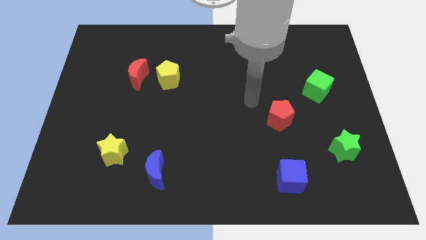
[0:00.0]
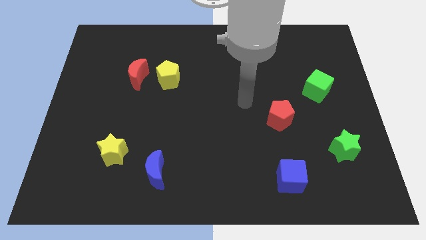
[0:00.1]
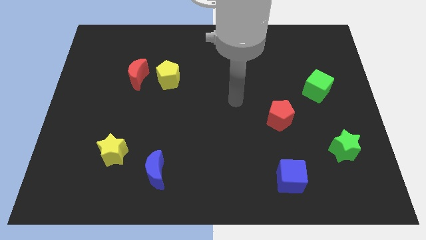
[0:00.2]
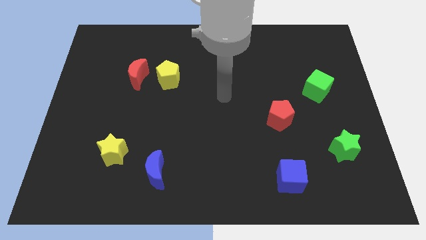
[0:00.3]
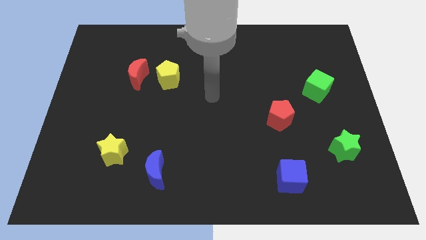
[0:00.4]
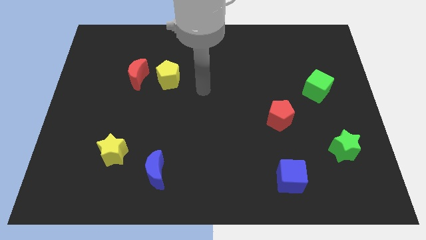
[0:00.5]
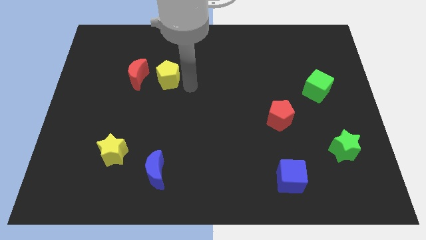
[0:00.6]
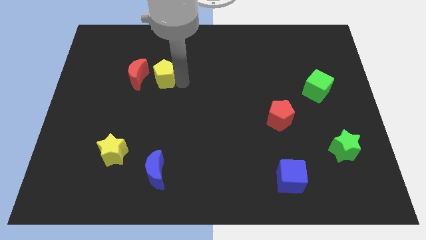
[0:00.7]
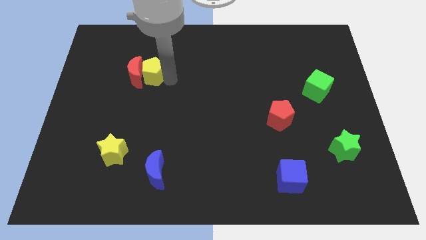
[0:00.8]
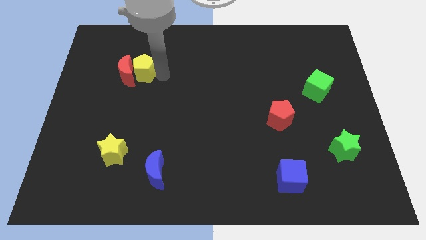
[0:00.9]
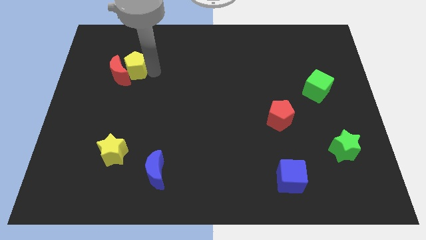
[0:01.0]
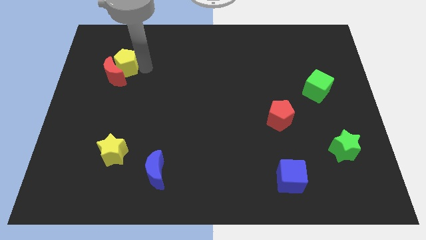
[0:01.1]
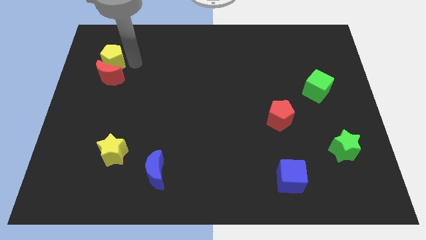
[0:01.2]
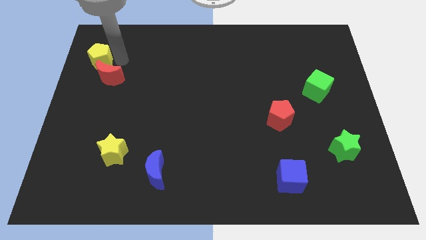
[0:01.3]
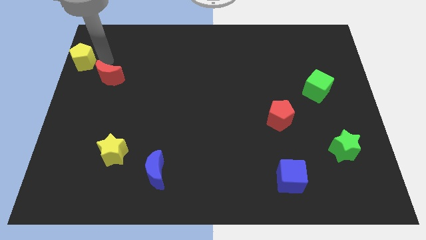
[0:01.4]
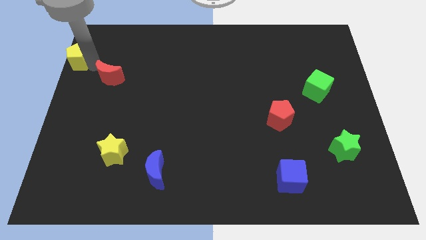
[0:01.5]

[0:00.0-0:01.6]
move the red moon away from the yellow pentagon

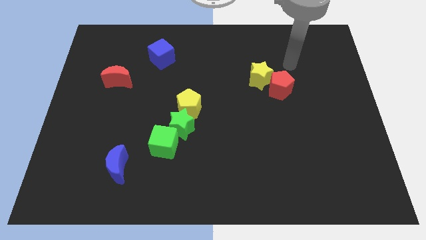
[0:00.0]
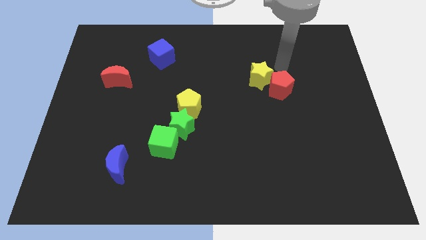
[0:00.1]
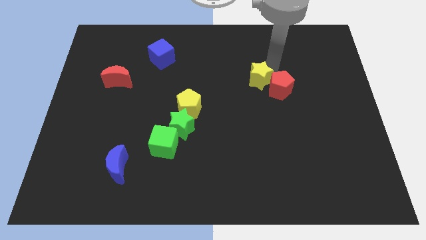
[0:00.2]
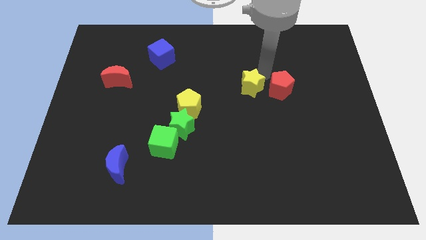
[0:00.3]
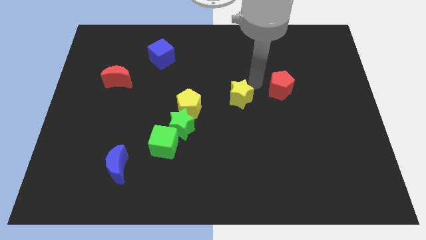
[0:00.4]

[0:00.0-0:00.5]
pull the red pentagon apart from the yellow star

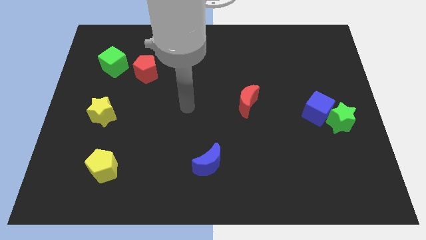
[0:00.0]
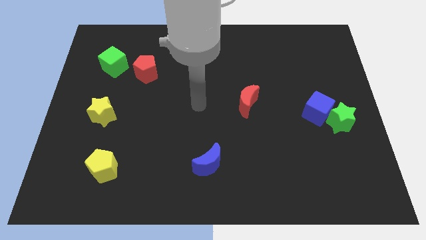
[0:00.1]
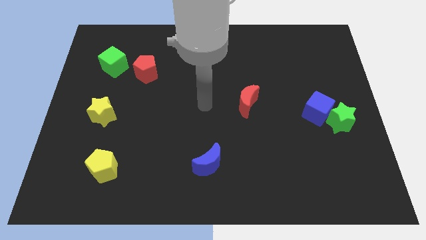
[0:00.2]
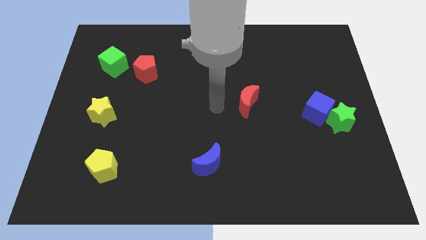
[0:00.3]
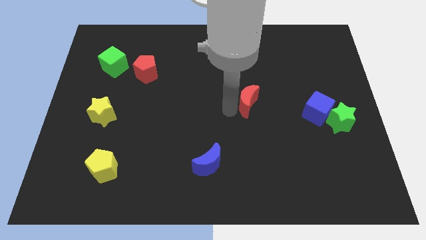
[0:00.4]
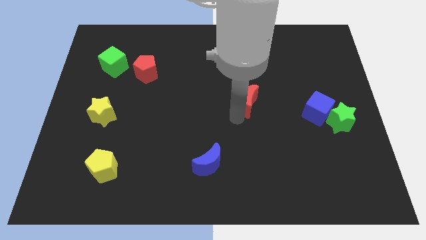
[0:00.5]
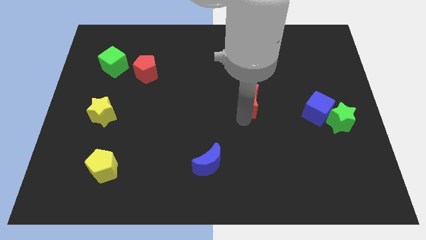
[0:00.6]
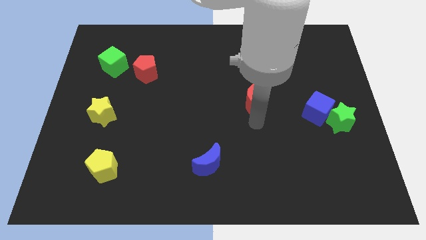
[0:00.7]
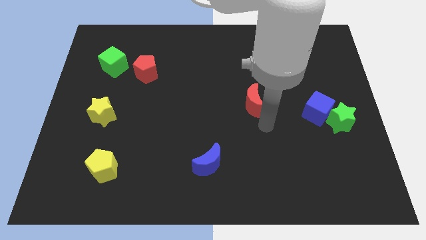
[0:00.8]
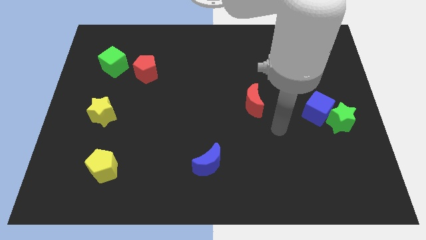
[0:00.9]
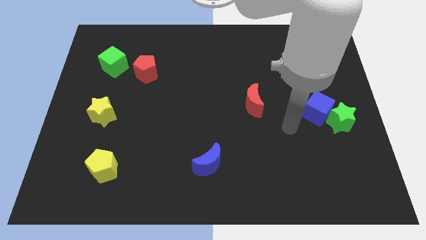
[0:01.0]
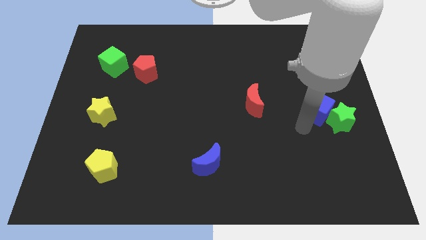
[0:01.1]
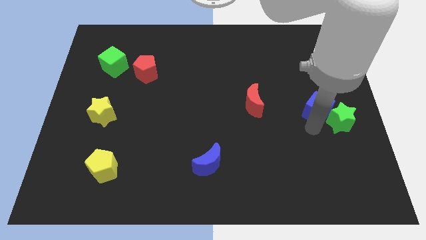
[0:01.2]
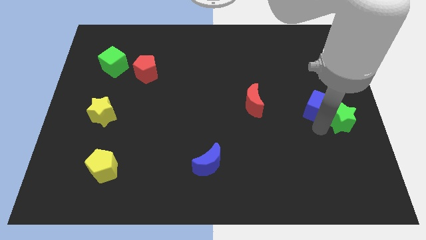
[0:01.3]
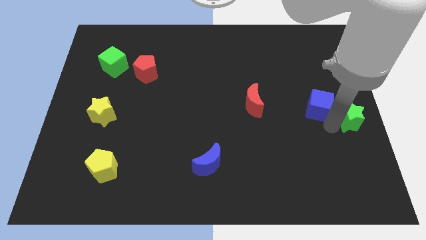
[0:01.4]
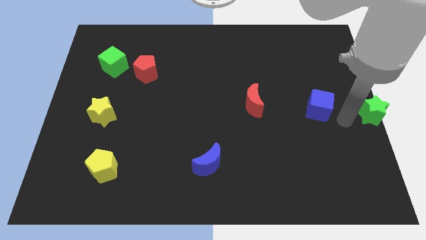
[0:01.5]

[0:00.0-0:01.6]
pull the blue cube apart from the green star

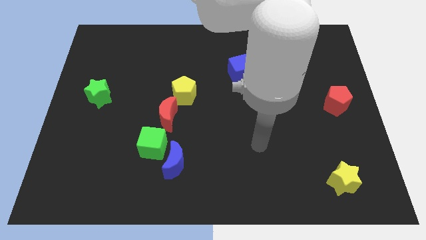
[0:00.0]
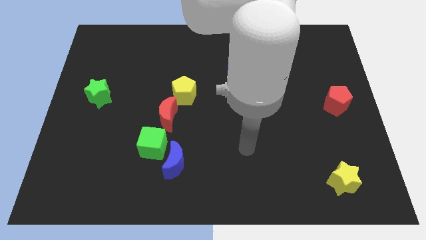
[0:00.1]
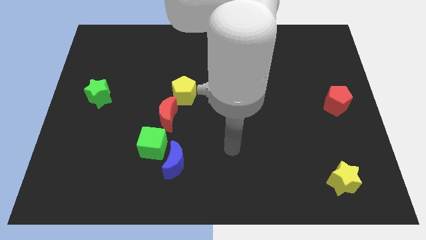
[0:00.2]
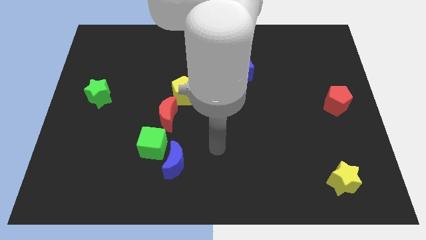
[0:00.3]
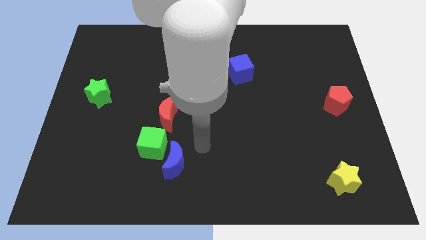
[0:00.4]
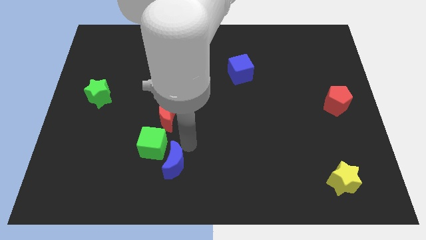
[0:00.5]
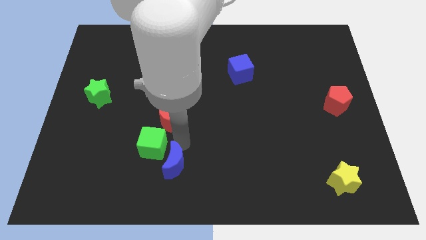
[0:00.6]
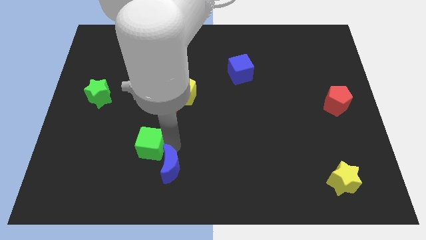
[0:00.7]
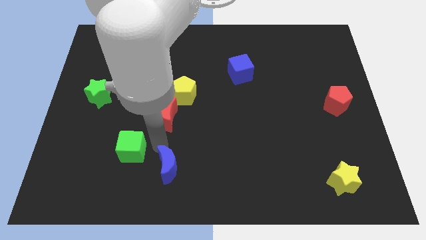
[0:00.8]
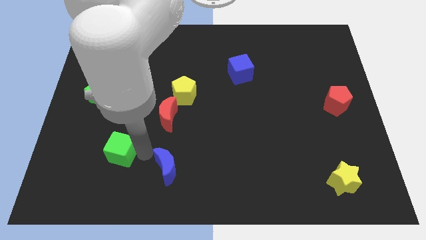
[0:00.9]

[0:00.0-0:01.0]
move the blue moon away from the green cube

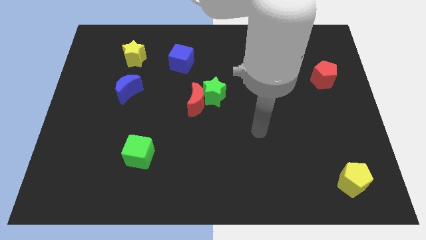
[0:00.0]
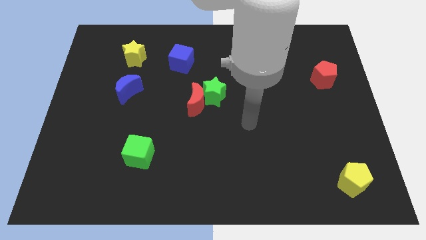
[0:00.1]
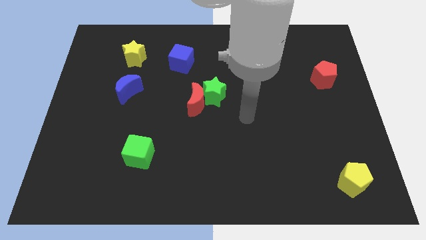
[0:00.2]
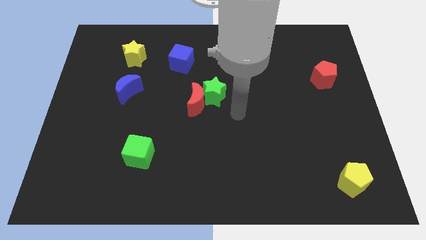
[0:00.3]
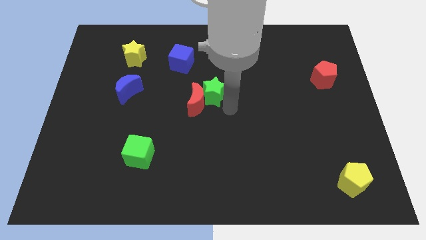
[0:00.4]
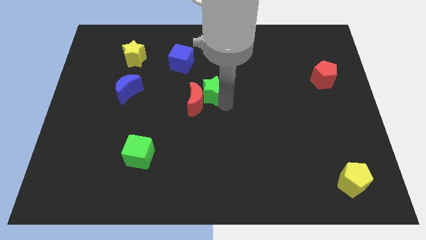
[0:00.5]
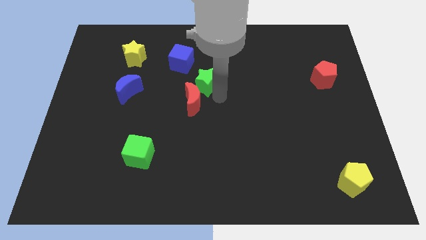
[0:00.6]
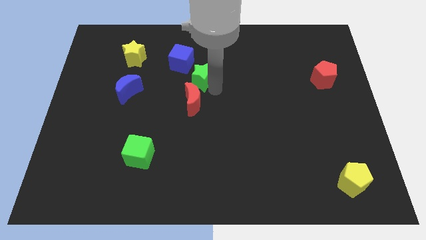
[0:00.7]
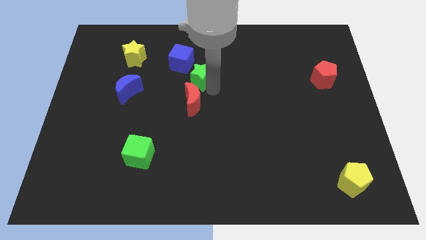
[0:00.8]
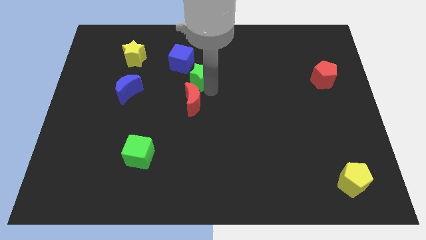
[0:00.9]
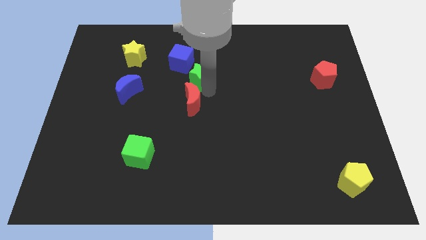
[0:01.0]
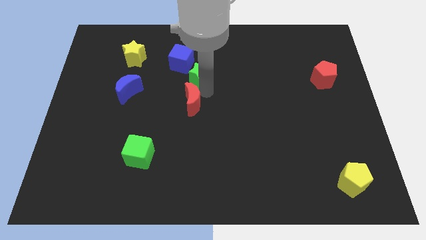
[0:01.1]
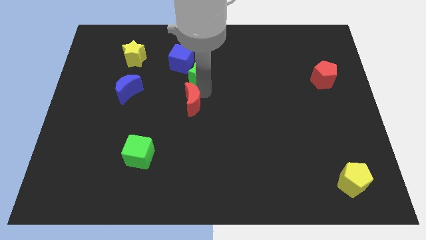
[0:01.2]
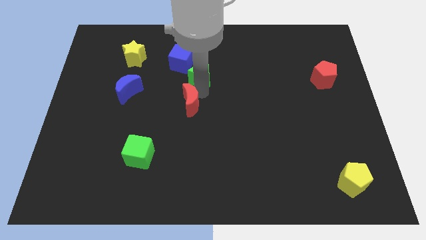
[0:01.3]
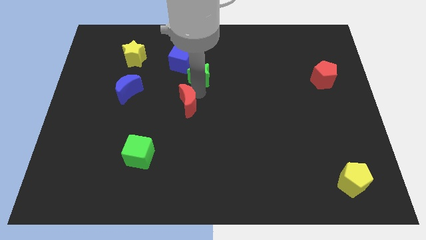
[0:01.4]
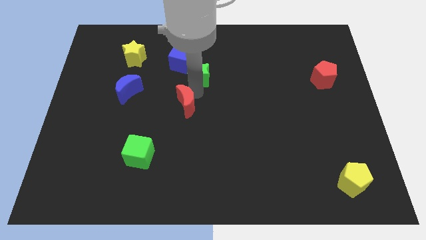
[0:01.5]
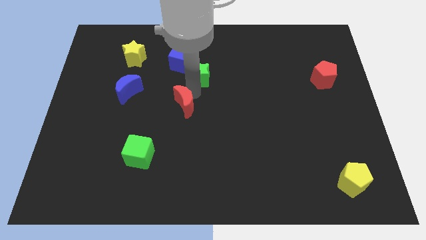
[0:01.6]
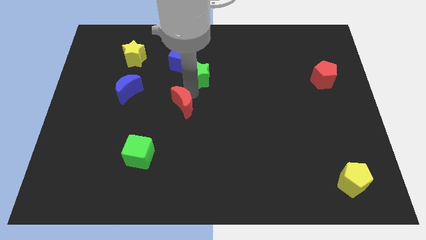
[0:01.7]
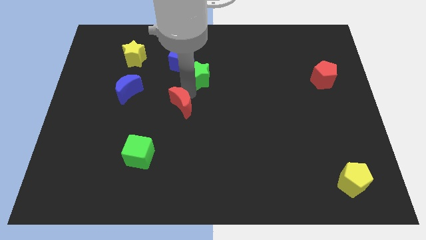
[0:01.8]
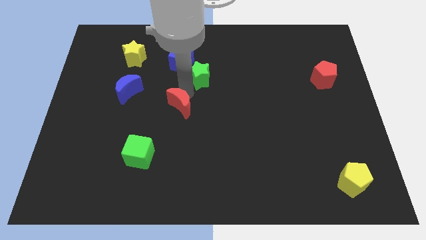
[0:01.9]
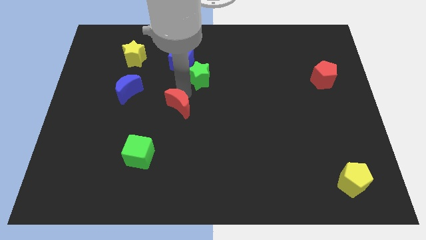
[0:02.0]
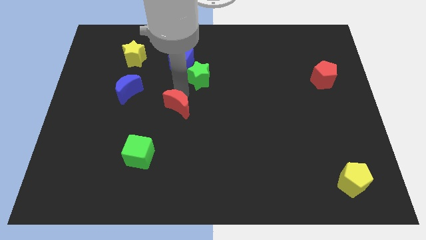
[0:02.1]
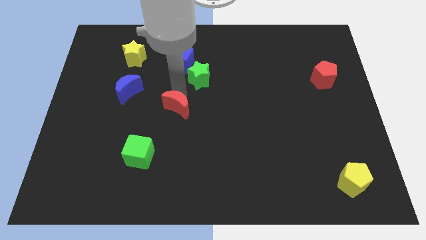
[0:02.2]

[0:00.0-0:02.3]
separate the red moon from the green star

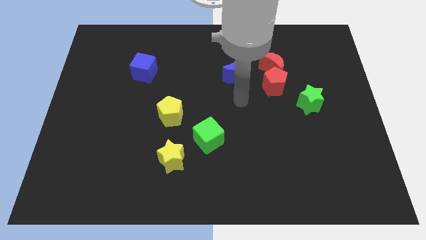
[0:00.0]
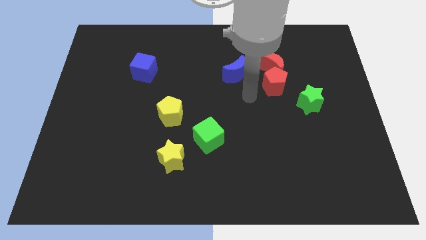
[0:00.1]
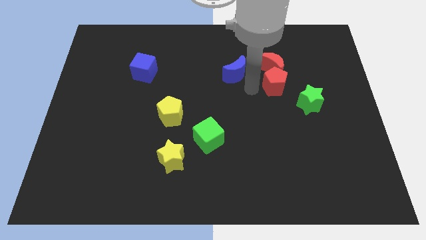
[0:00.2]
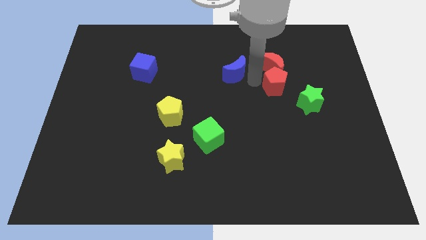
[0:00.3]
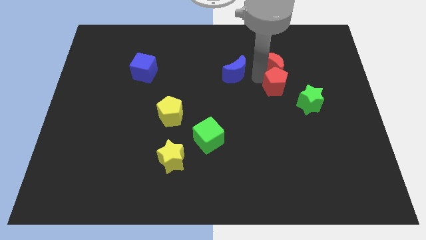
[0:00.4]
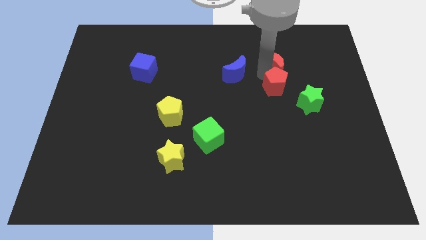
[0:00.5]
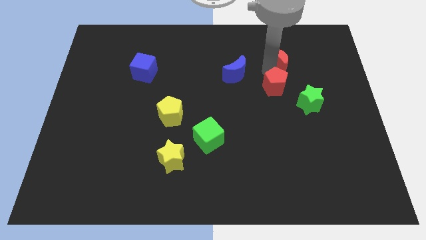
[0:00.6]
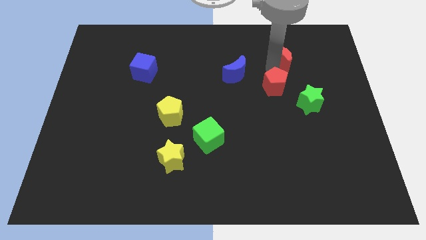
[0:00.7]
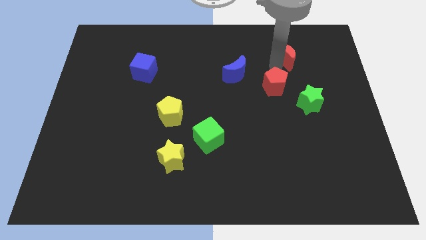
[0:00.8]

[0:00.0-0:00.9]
pull the red moon apart from the red pentagon and blue moon

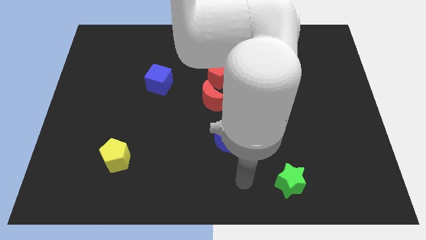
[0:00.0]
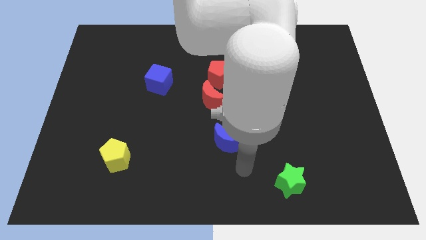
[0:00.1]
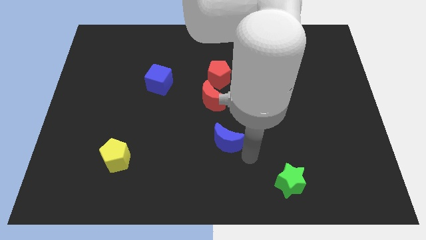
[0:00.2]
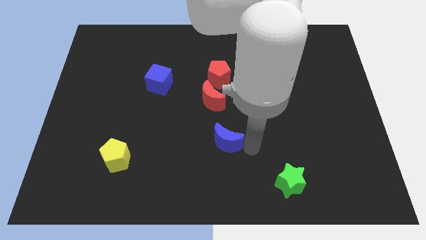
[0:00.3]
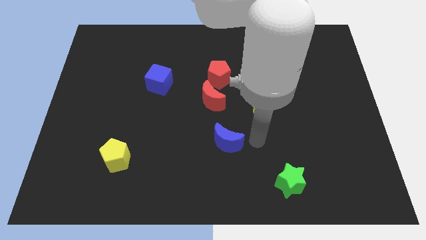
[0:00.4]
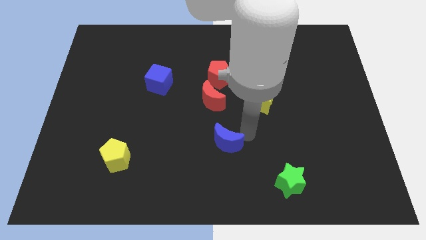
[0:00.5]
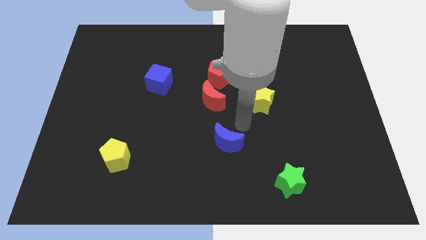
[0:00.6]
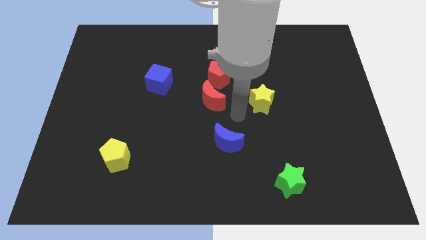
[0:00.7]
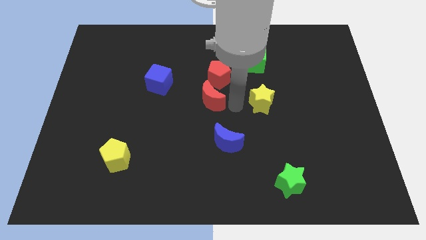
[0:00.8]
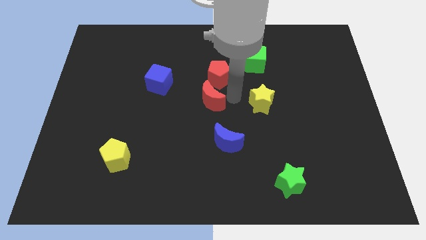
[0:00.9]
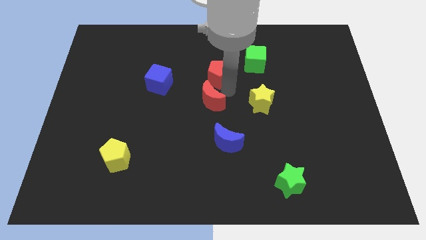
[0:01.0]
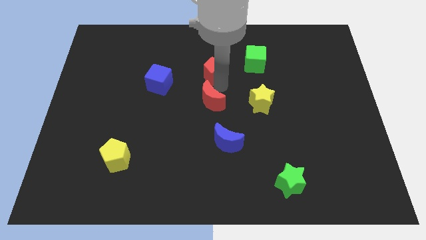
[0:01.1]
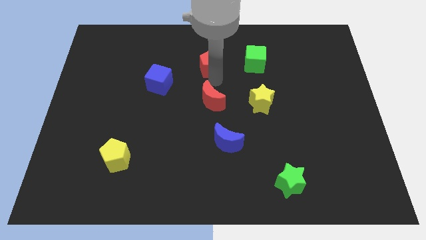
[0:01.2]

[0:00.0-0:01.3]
pull the red moon apart from the red pentagon

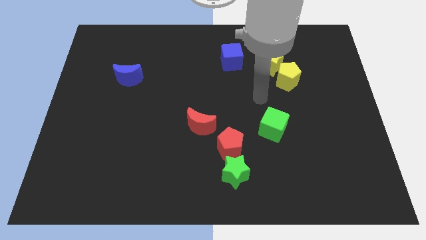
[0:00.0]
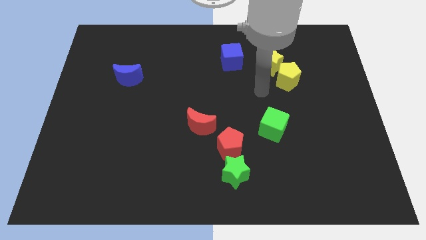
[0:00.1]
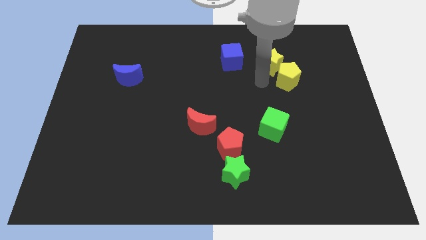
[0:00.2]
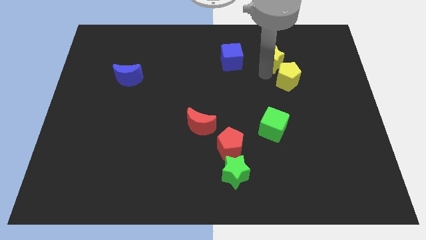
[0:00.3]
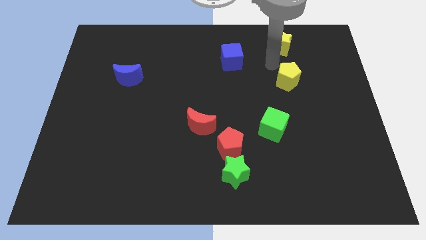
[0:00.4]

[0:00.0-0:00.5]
pull the yellow pentagon apart from the yellow star
